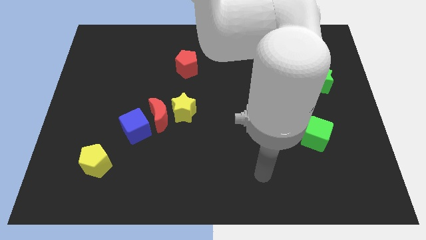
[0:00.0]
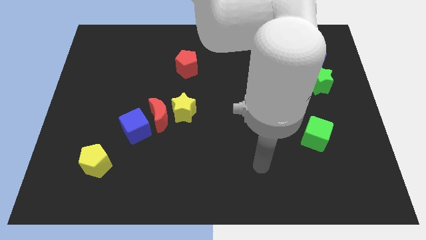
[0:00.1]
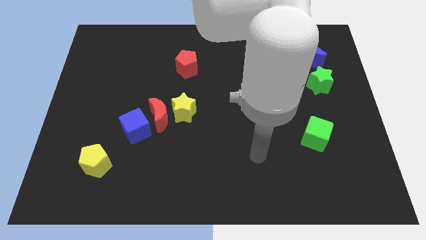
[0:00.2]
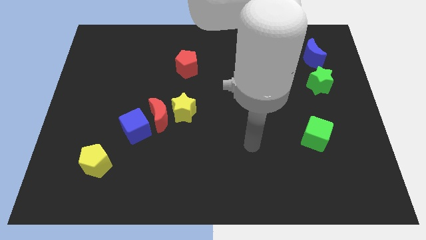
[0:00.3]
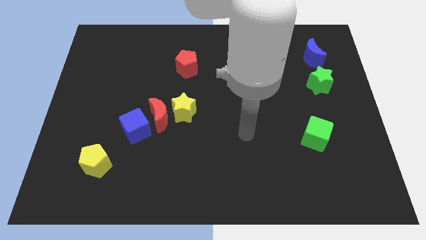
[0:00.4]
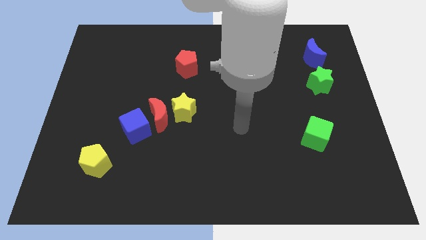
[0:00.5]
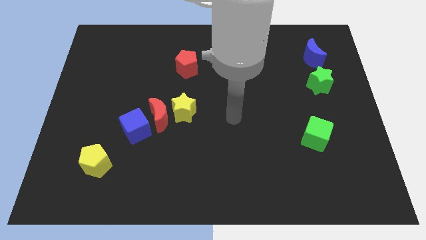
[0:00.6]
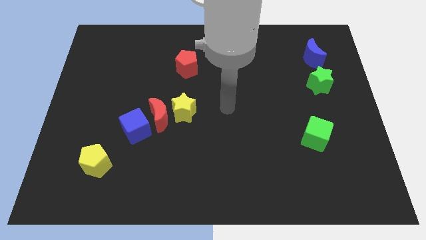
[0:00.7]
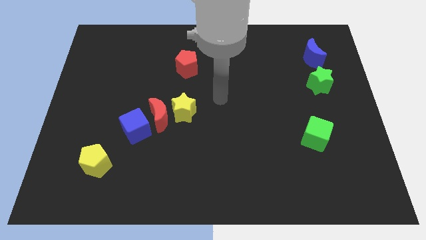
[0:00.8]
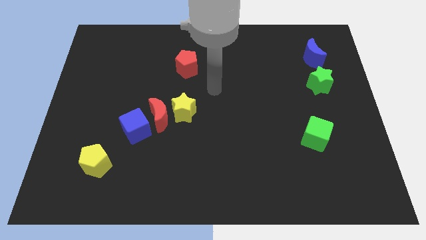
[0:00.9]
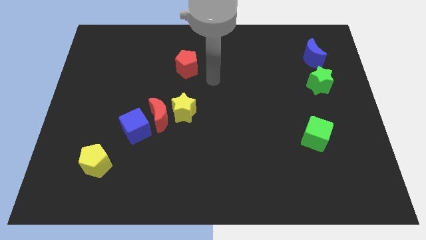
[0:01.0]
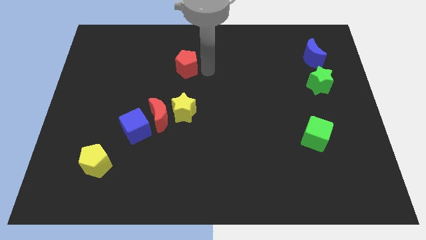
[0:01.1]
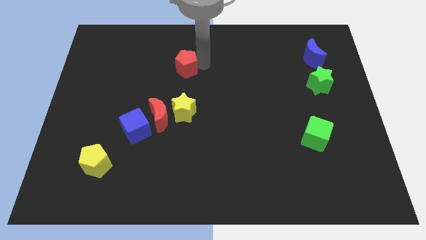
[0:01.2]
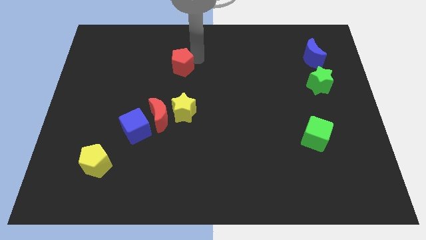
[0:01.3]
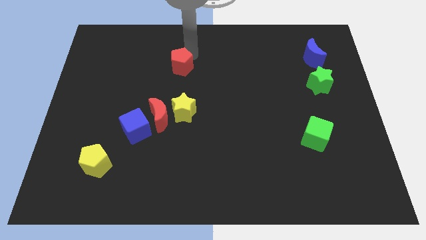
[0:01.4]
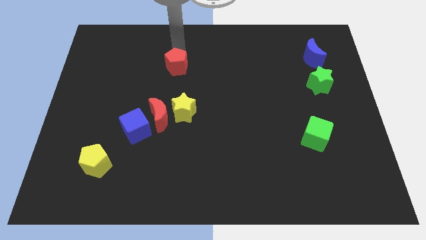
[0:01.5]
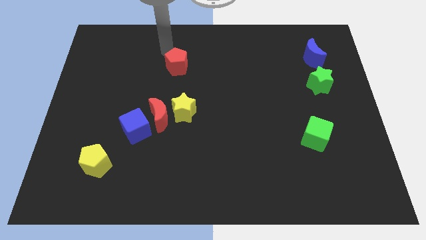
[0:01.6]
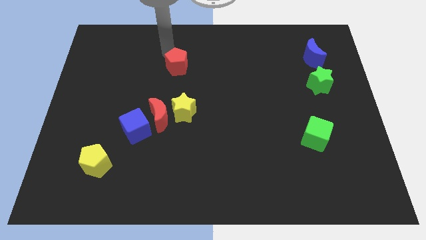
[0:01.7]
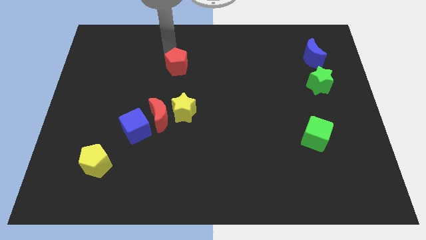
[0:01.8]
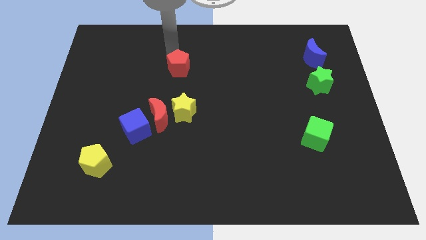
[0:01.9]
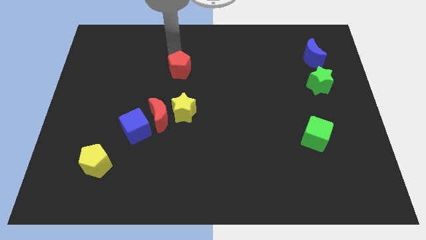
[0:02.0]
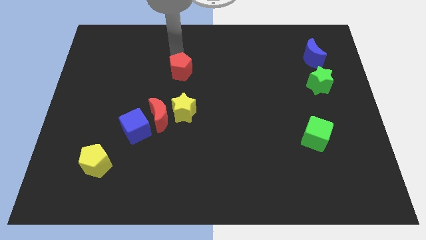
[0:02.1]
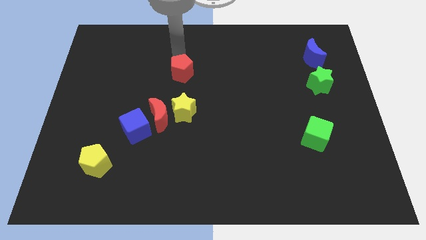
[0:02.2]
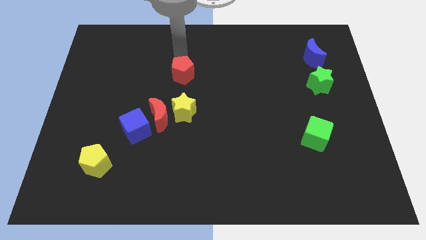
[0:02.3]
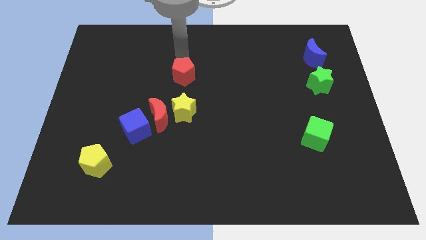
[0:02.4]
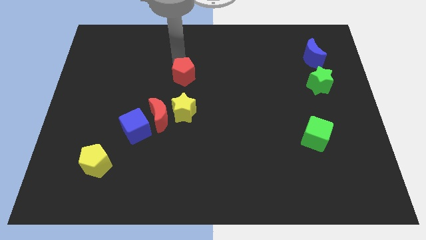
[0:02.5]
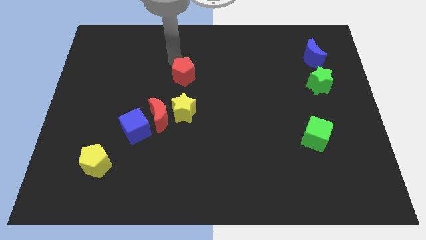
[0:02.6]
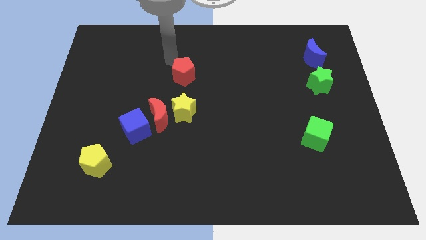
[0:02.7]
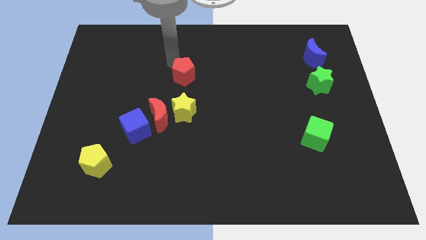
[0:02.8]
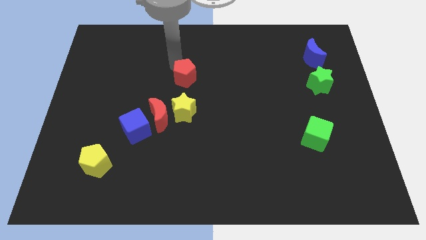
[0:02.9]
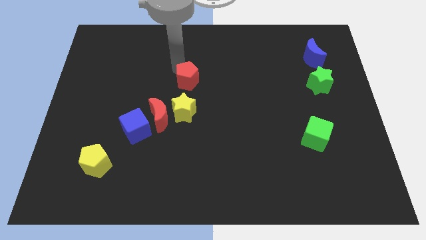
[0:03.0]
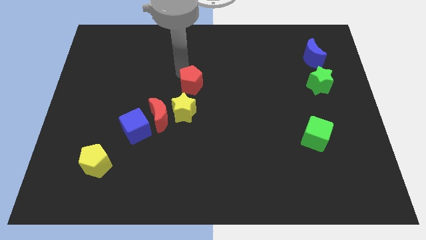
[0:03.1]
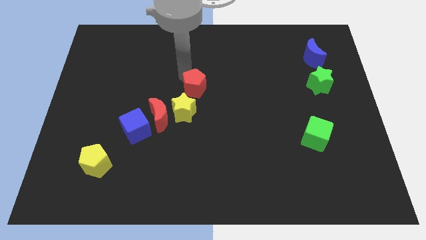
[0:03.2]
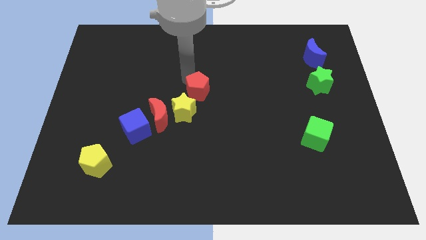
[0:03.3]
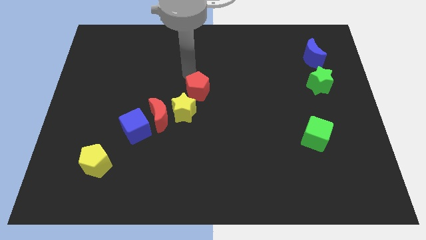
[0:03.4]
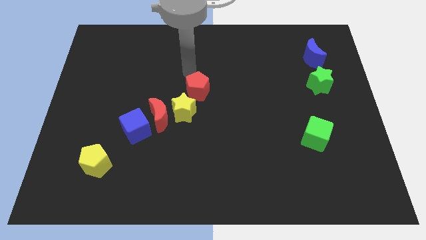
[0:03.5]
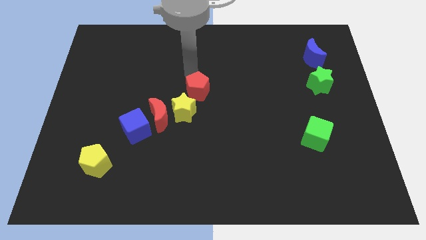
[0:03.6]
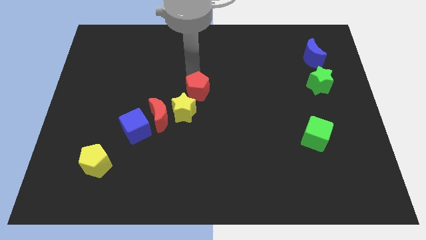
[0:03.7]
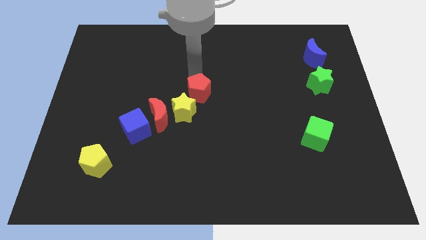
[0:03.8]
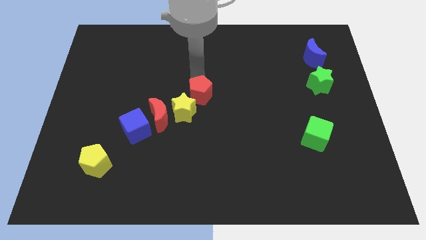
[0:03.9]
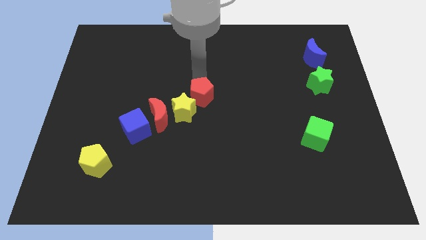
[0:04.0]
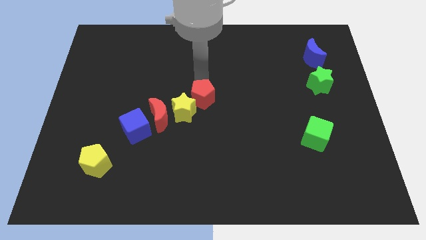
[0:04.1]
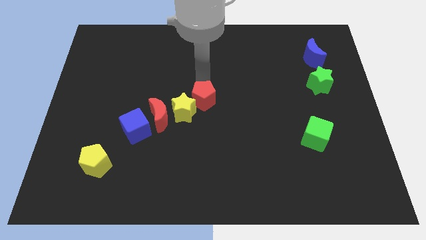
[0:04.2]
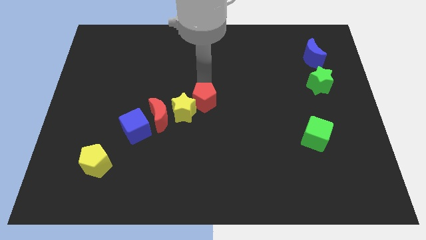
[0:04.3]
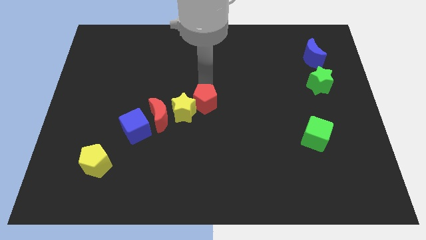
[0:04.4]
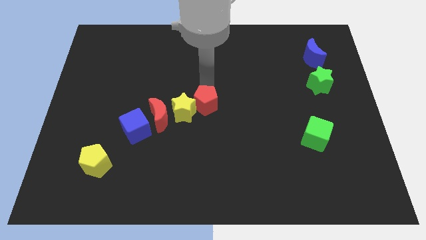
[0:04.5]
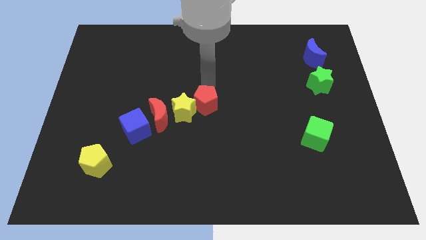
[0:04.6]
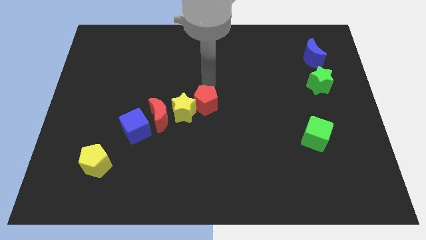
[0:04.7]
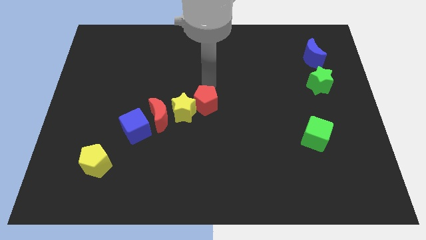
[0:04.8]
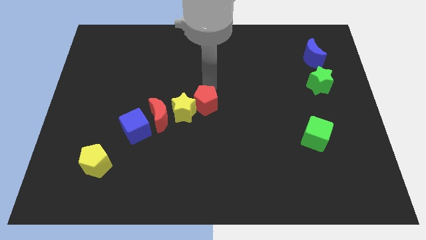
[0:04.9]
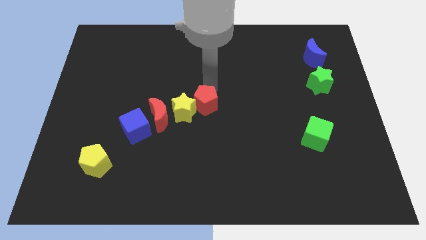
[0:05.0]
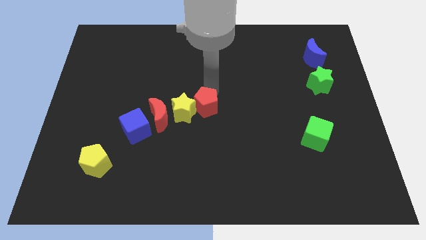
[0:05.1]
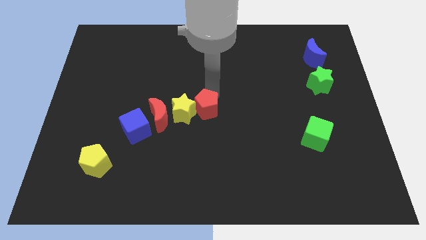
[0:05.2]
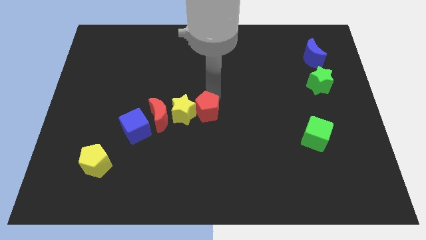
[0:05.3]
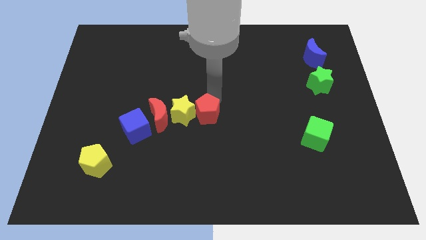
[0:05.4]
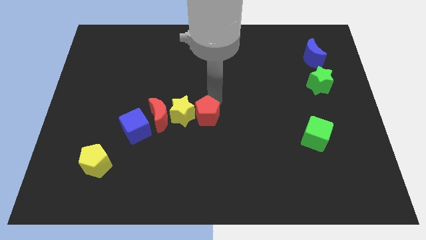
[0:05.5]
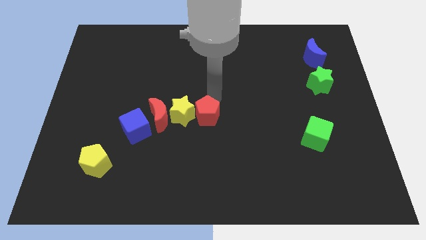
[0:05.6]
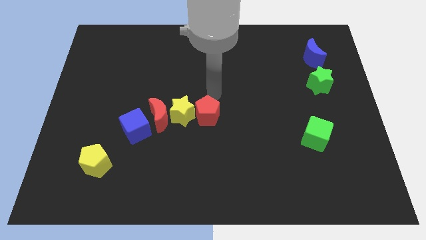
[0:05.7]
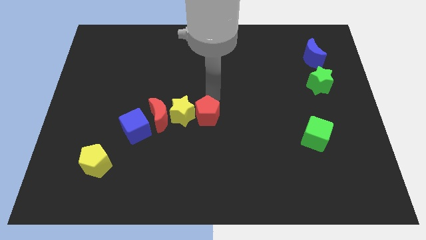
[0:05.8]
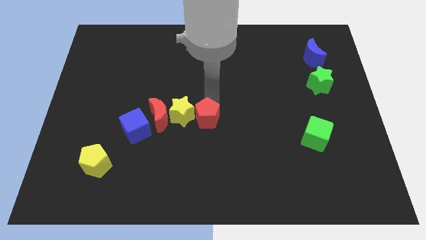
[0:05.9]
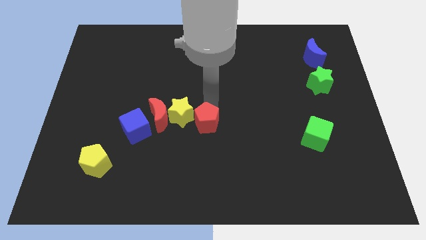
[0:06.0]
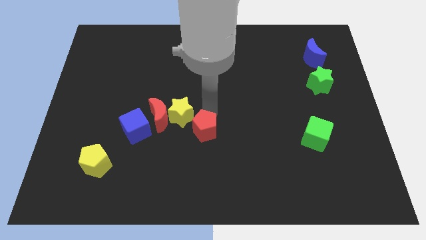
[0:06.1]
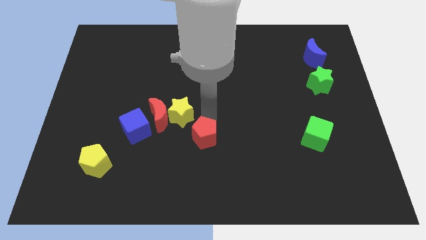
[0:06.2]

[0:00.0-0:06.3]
slide the red pentagon down

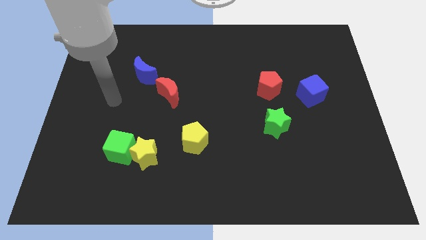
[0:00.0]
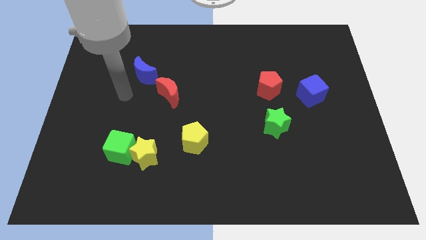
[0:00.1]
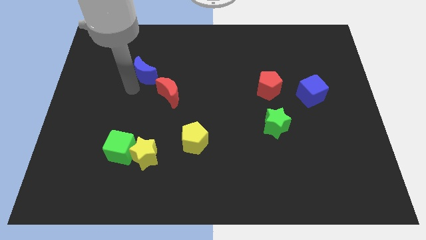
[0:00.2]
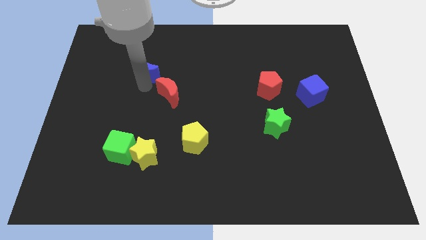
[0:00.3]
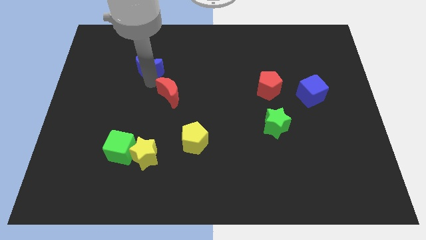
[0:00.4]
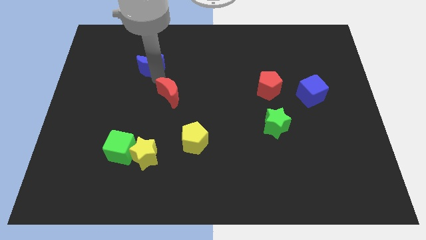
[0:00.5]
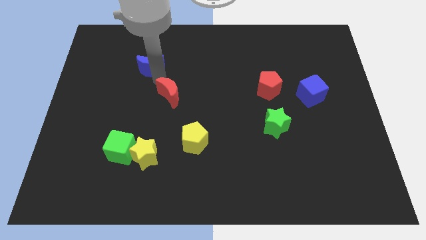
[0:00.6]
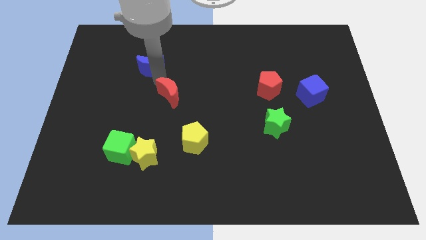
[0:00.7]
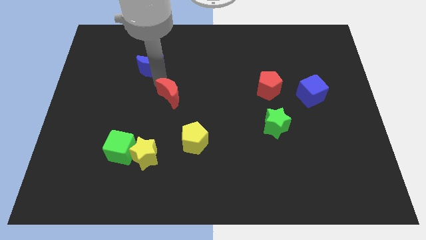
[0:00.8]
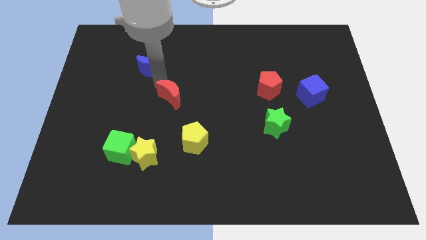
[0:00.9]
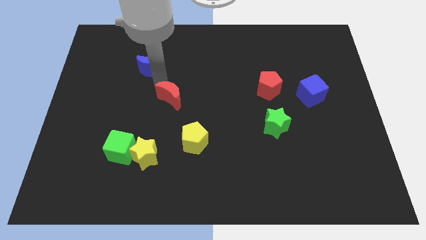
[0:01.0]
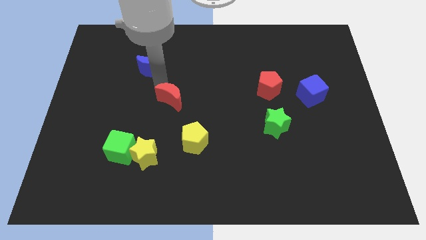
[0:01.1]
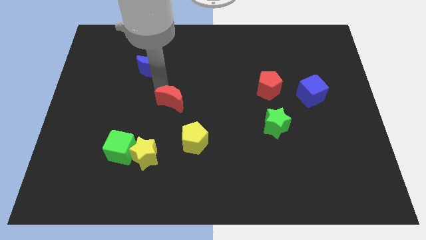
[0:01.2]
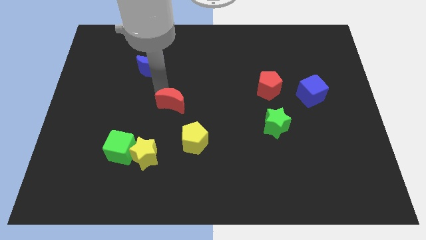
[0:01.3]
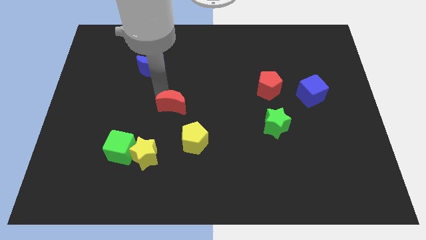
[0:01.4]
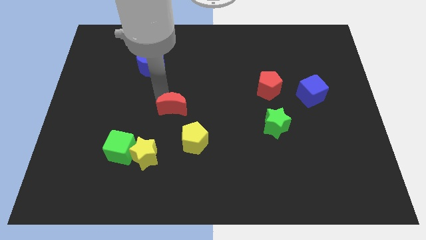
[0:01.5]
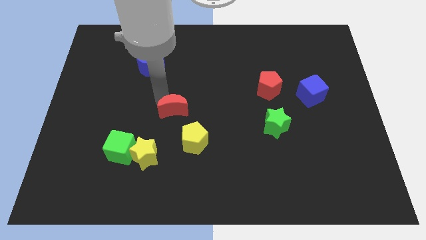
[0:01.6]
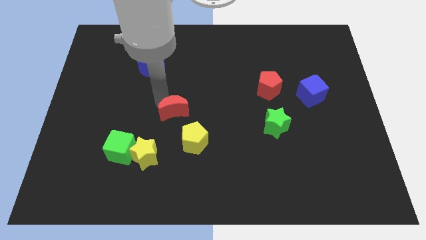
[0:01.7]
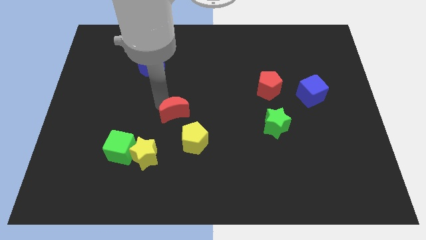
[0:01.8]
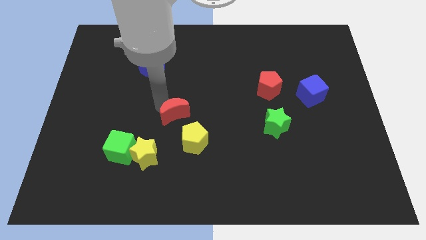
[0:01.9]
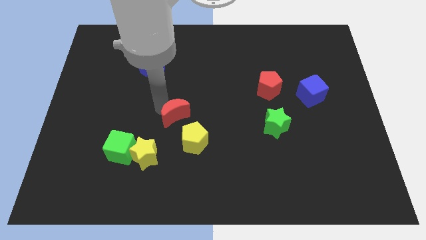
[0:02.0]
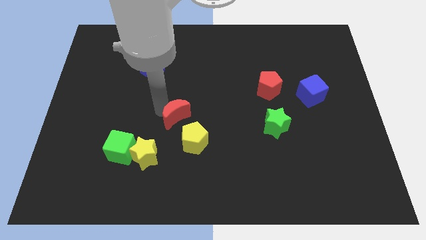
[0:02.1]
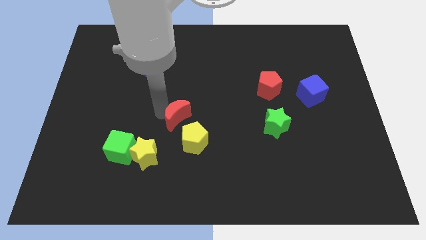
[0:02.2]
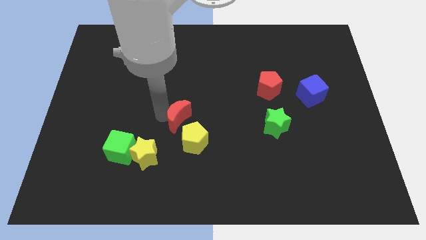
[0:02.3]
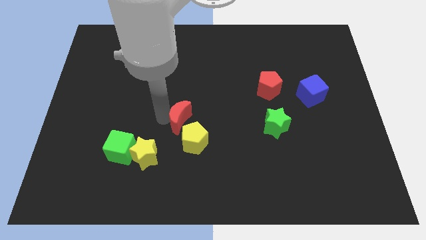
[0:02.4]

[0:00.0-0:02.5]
slightly push the red moon down and to the right diagonally
